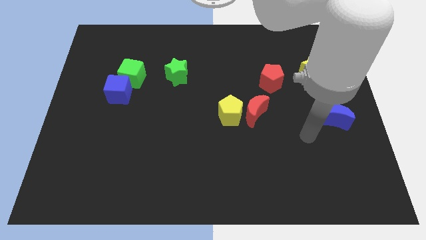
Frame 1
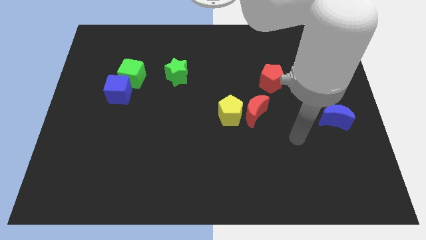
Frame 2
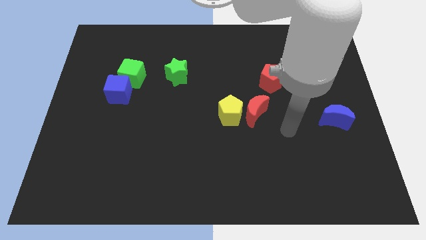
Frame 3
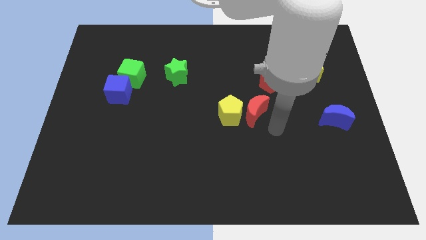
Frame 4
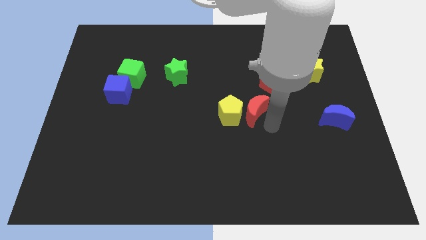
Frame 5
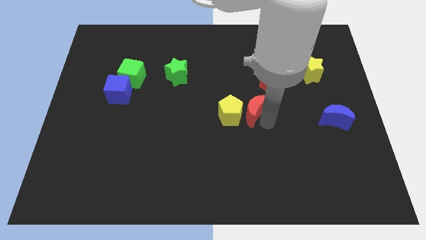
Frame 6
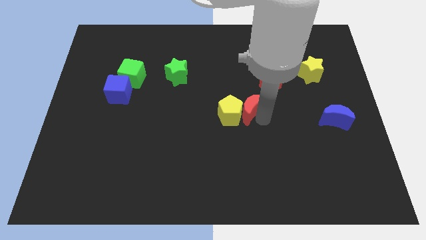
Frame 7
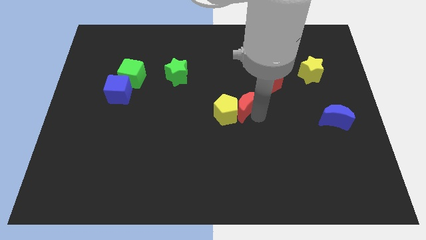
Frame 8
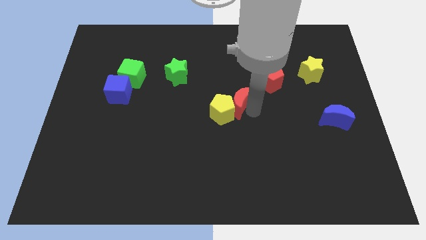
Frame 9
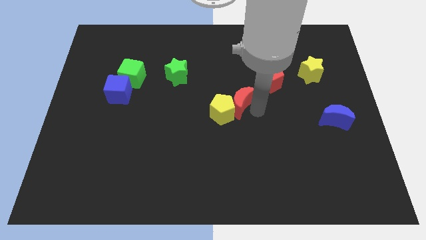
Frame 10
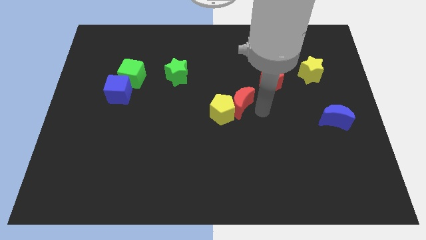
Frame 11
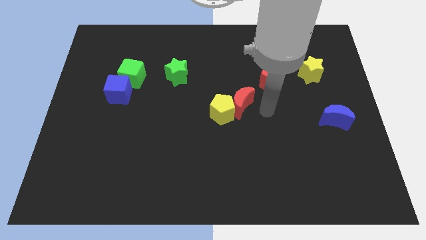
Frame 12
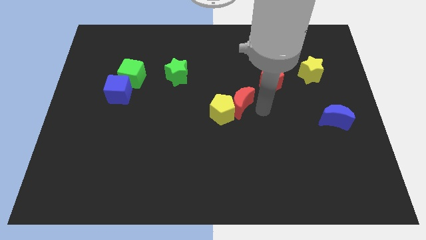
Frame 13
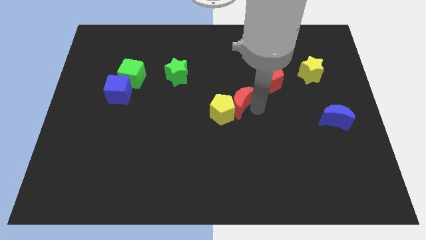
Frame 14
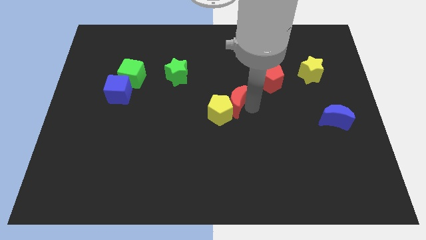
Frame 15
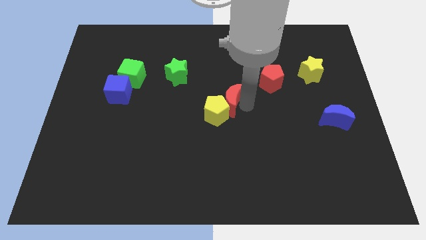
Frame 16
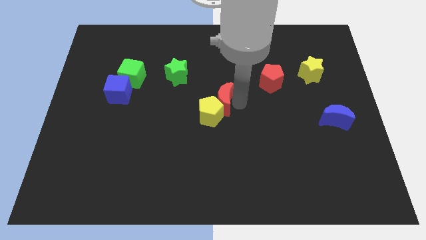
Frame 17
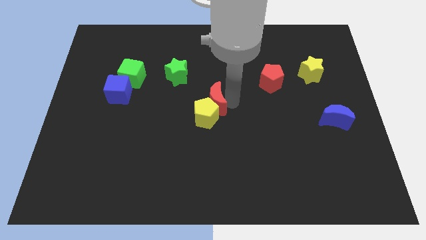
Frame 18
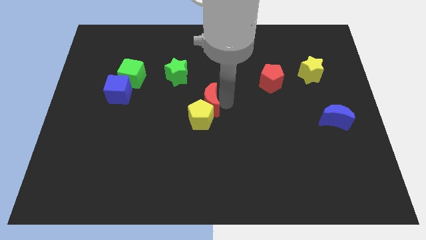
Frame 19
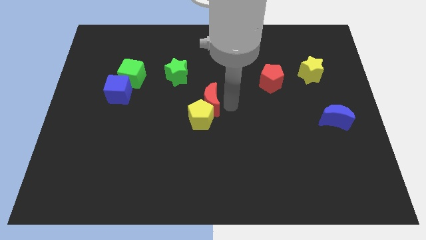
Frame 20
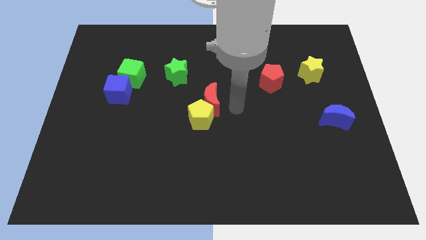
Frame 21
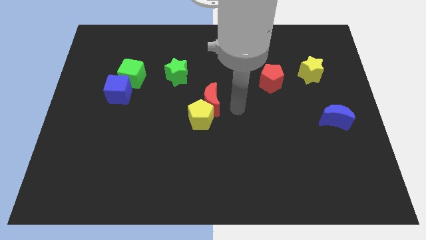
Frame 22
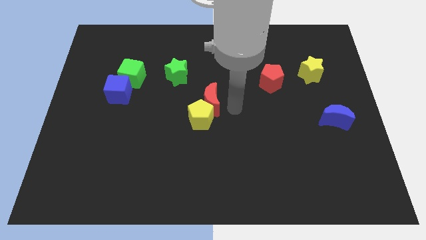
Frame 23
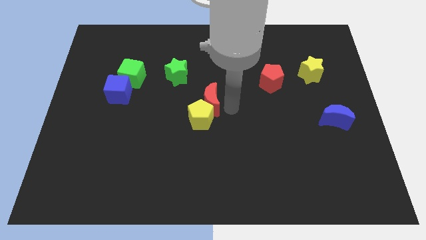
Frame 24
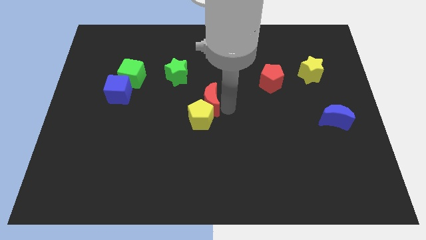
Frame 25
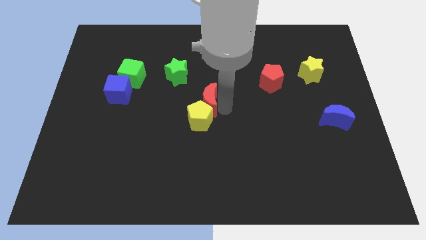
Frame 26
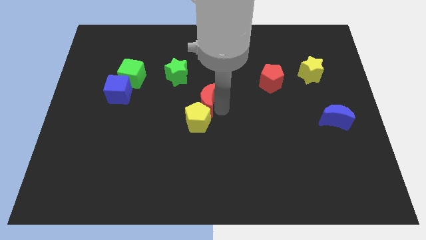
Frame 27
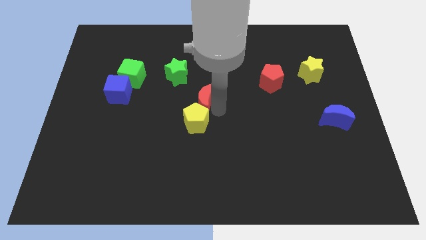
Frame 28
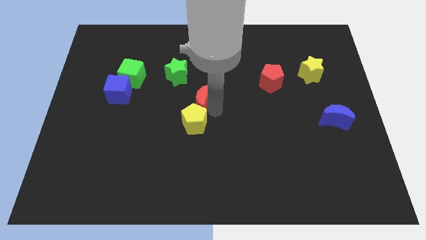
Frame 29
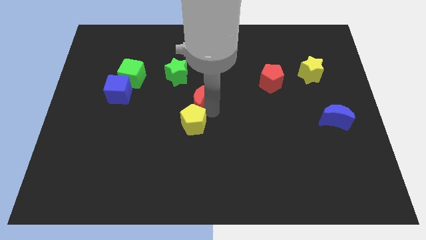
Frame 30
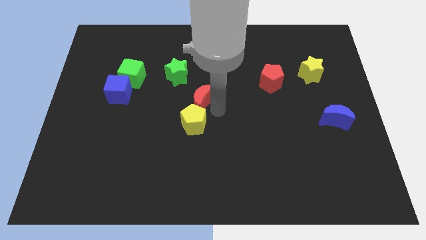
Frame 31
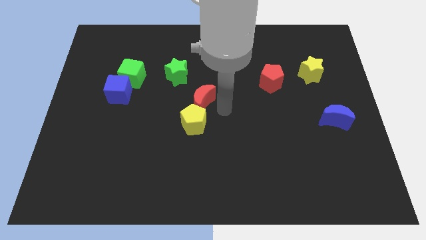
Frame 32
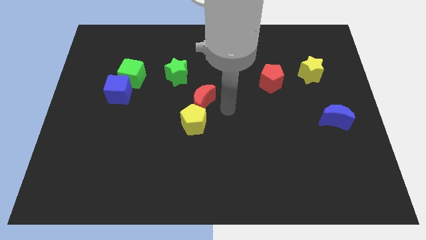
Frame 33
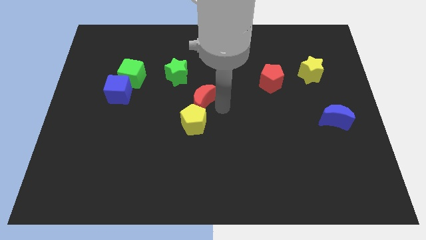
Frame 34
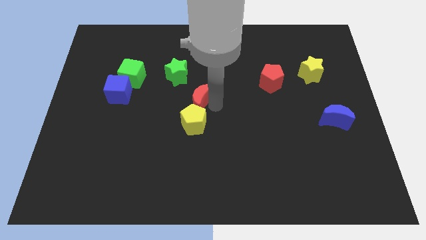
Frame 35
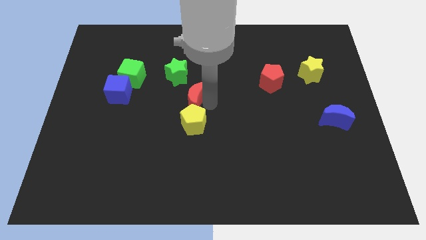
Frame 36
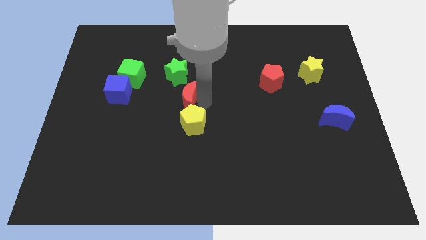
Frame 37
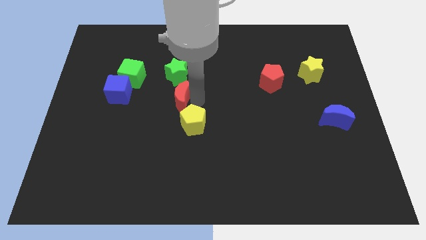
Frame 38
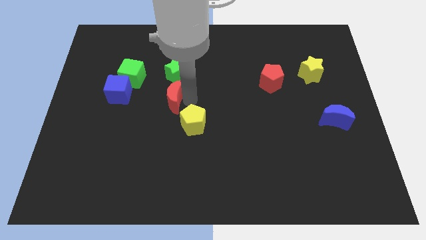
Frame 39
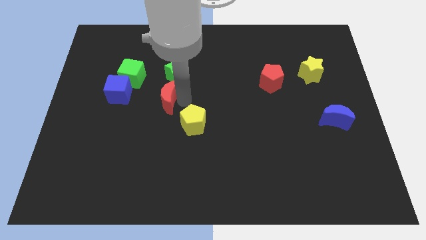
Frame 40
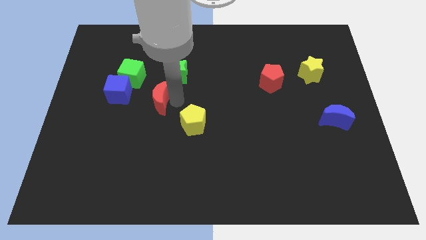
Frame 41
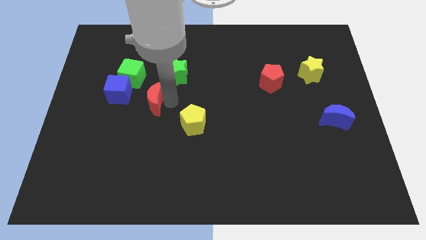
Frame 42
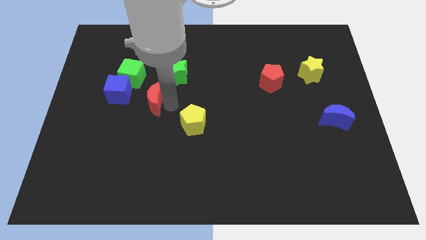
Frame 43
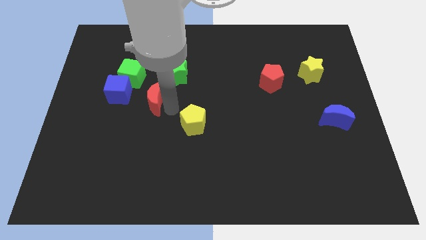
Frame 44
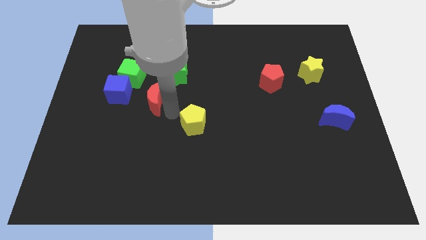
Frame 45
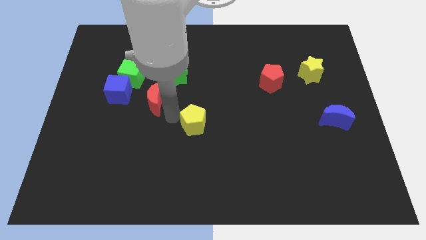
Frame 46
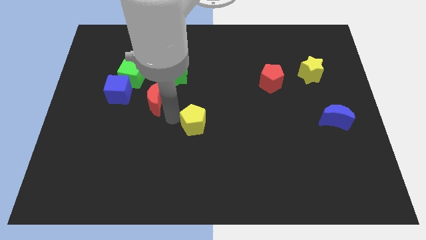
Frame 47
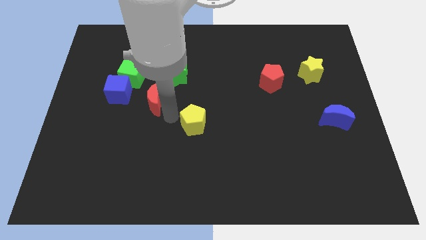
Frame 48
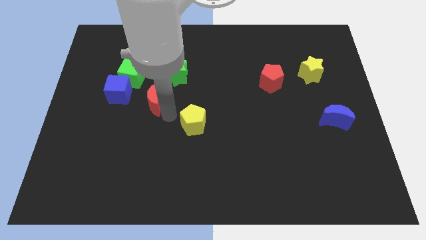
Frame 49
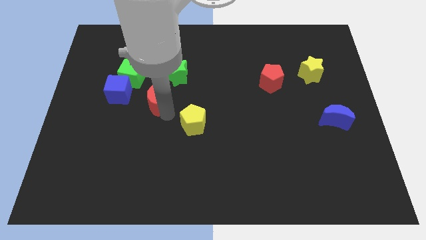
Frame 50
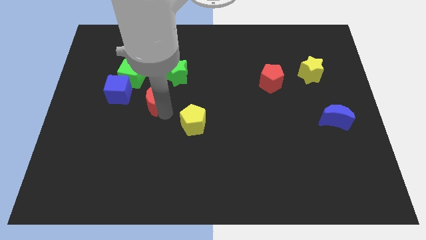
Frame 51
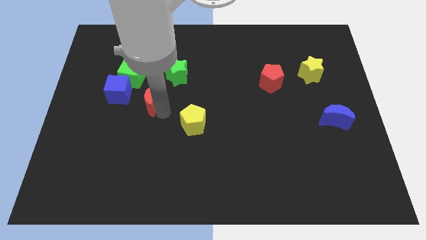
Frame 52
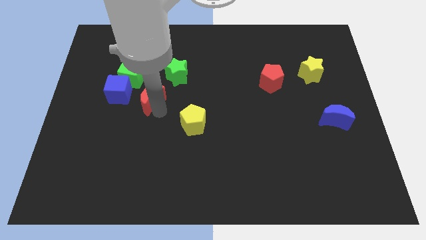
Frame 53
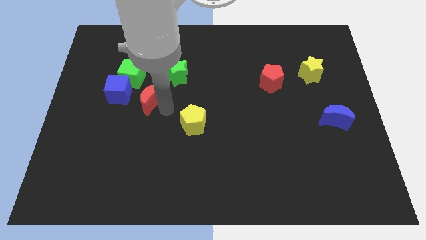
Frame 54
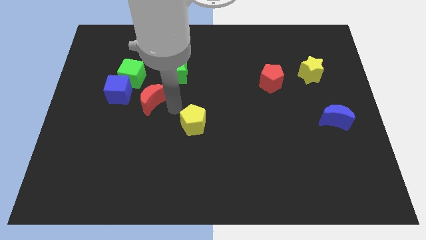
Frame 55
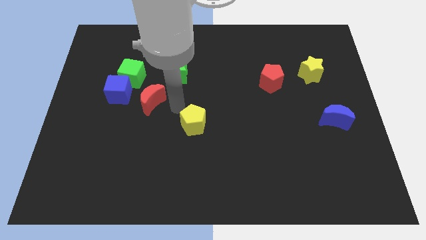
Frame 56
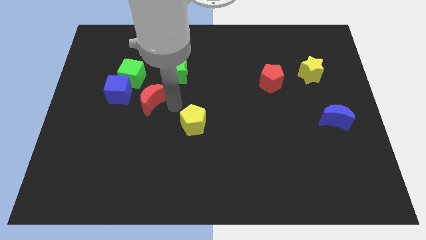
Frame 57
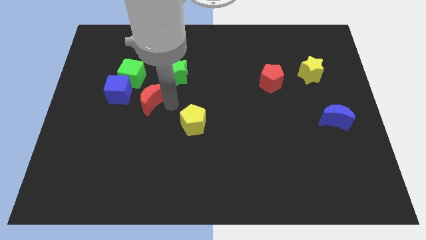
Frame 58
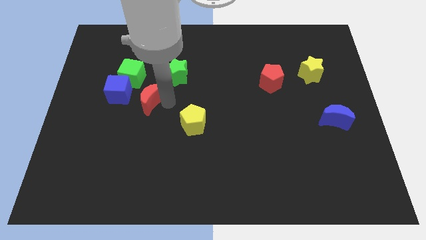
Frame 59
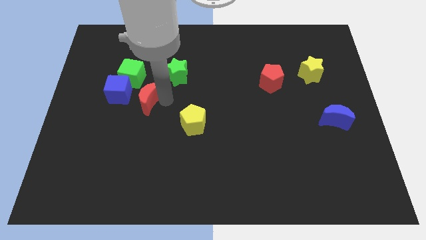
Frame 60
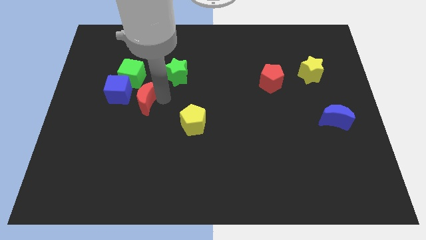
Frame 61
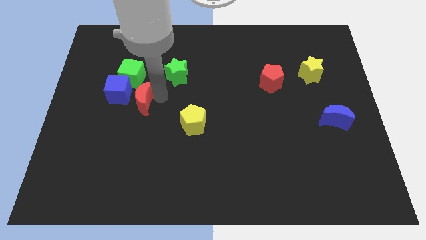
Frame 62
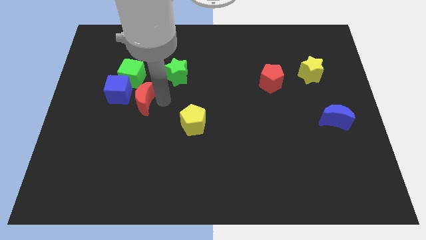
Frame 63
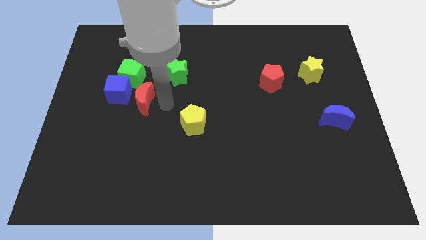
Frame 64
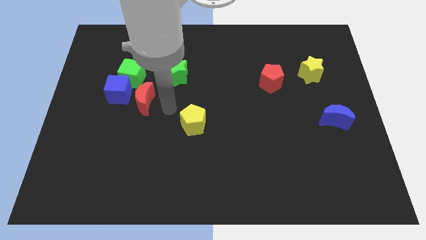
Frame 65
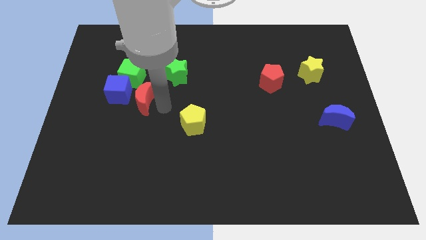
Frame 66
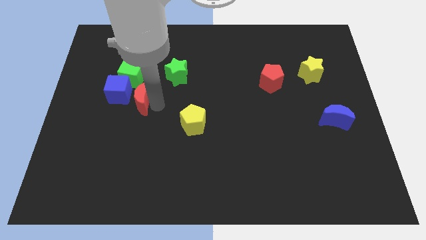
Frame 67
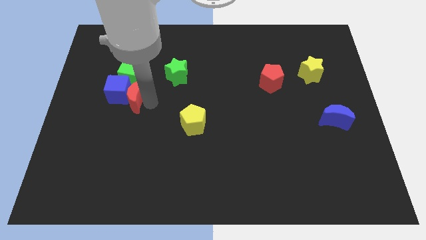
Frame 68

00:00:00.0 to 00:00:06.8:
push the red moon next to the blue cube
